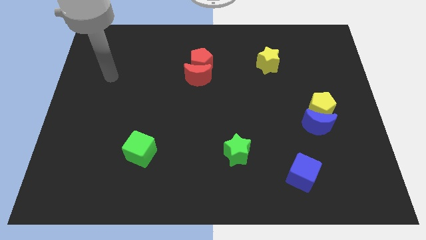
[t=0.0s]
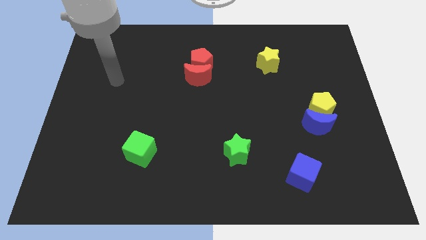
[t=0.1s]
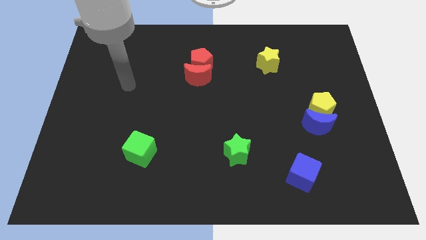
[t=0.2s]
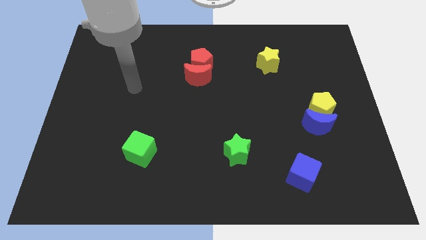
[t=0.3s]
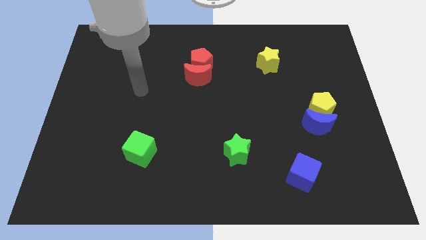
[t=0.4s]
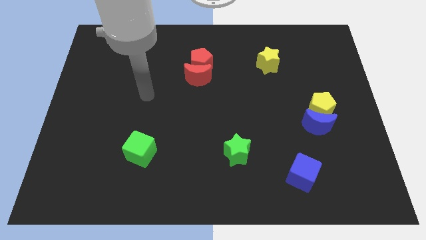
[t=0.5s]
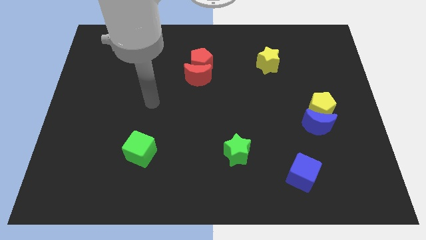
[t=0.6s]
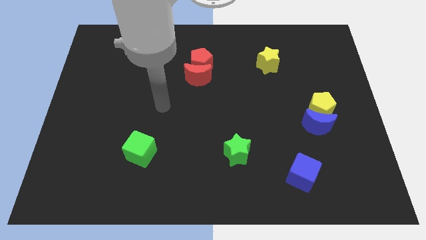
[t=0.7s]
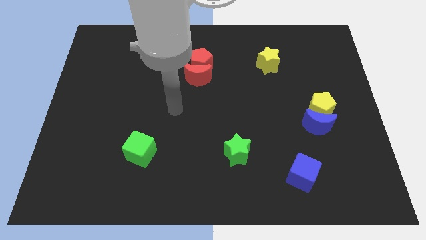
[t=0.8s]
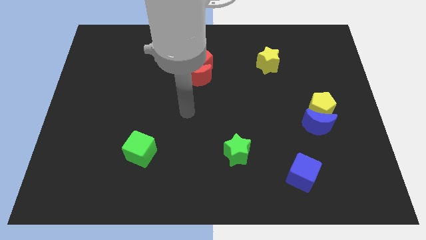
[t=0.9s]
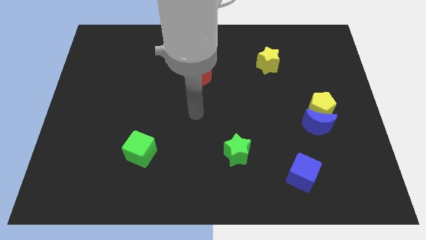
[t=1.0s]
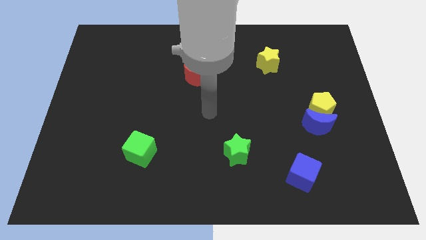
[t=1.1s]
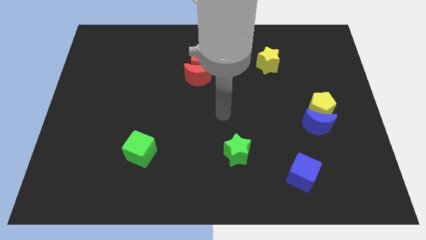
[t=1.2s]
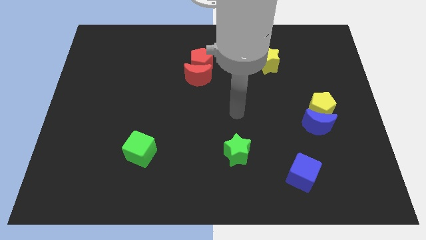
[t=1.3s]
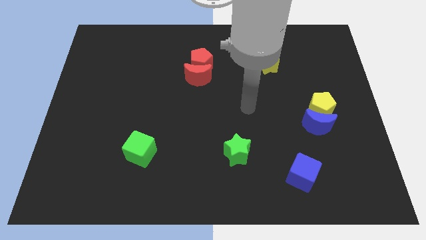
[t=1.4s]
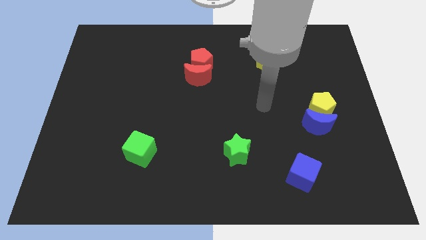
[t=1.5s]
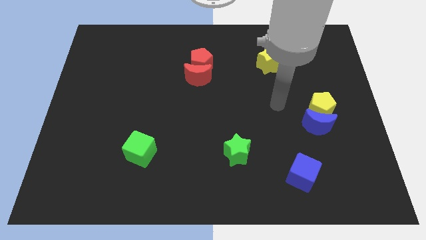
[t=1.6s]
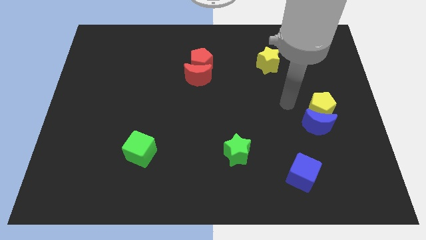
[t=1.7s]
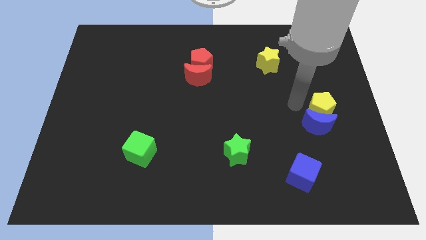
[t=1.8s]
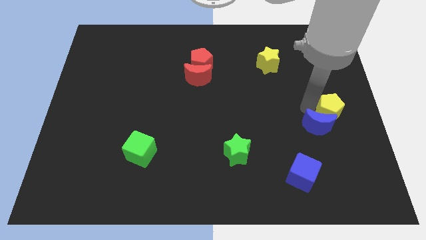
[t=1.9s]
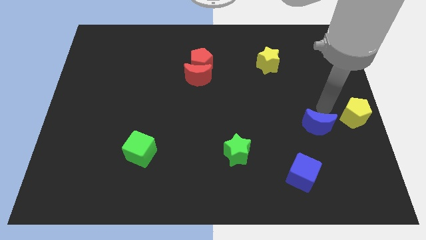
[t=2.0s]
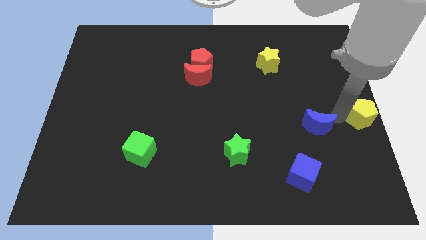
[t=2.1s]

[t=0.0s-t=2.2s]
move the blue moon away from the yellow pentagon

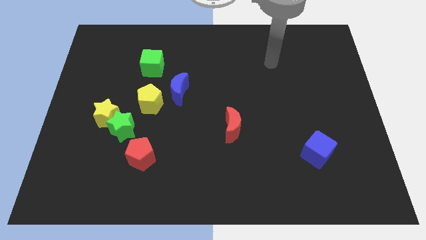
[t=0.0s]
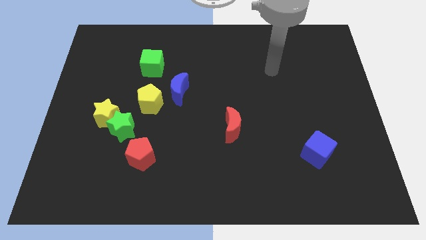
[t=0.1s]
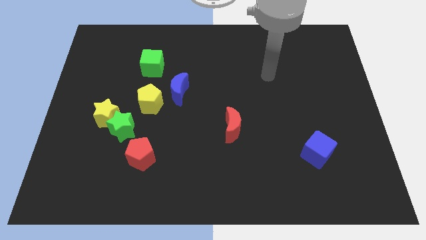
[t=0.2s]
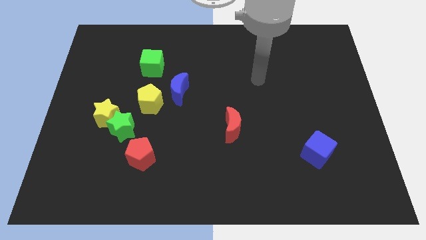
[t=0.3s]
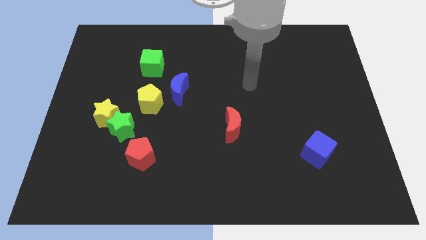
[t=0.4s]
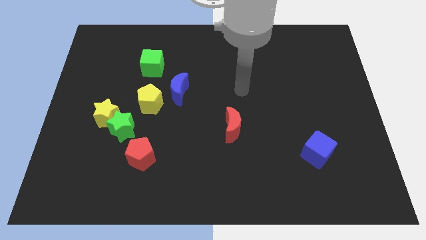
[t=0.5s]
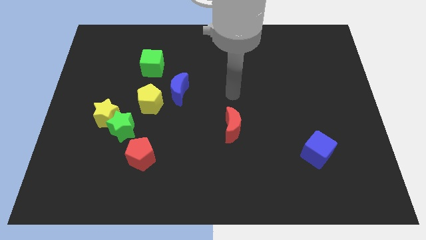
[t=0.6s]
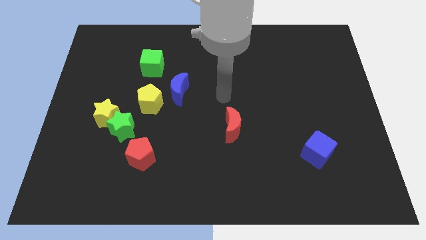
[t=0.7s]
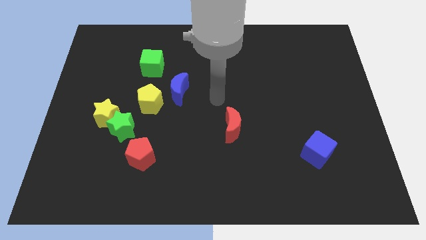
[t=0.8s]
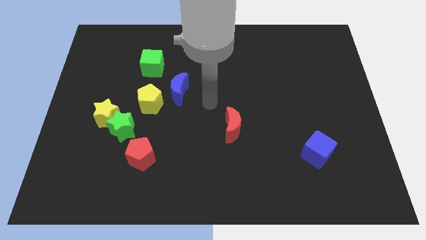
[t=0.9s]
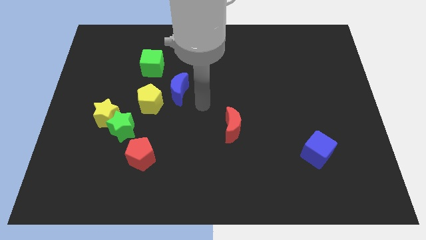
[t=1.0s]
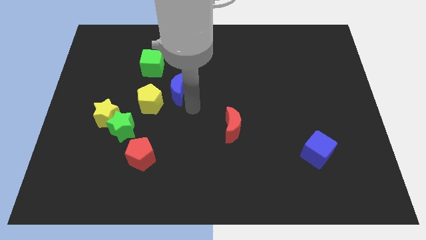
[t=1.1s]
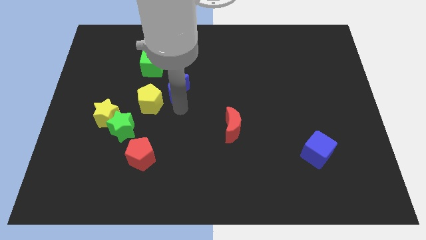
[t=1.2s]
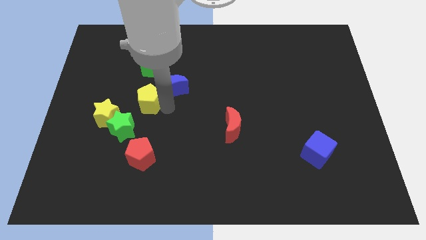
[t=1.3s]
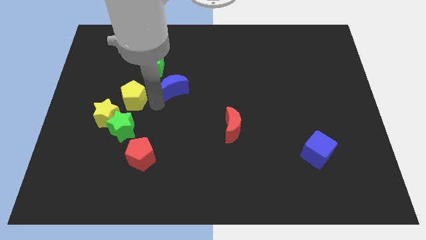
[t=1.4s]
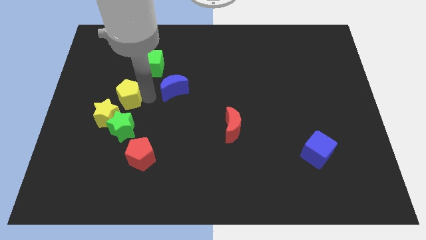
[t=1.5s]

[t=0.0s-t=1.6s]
separate the blue moon from the yellow pentagon

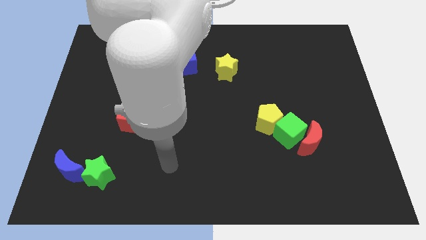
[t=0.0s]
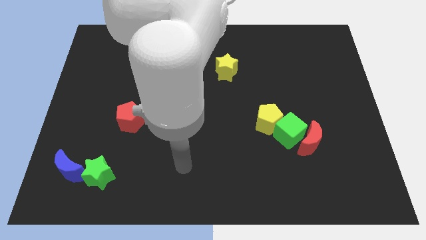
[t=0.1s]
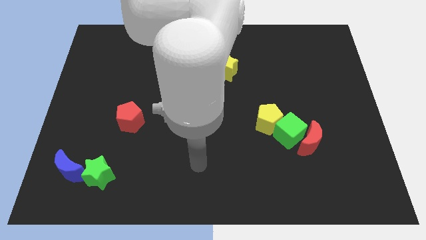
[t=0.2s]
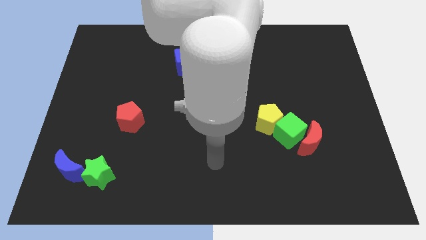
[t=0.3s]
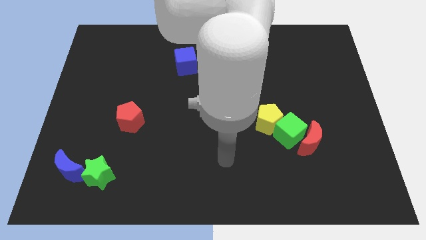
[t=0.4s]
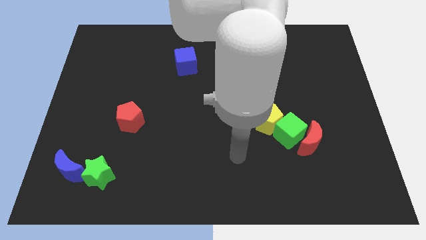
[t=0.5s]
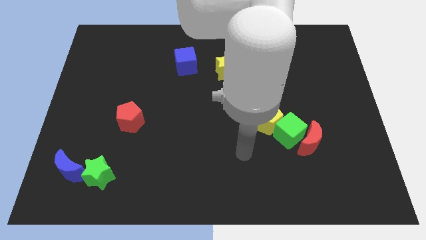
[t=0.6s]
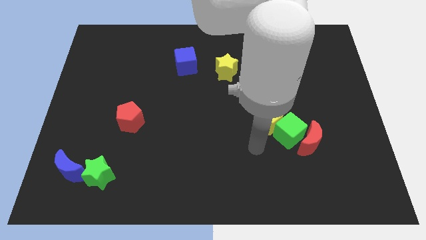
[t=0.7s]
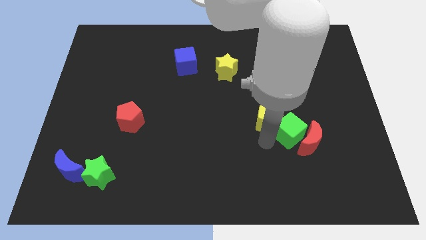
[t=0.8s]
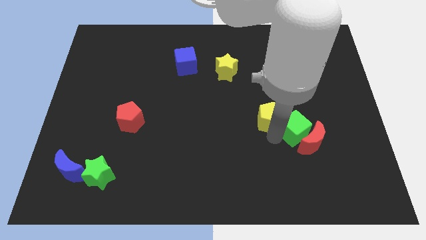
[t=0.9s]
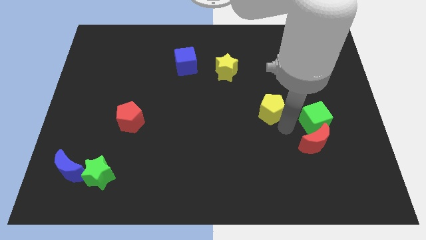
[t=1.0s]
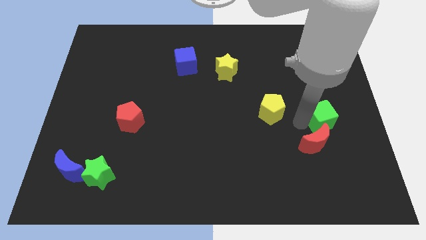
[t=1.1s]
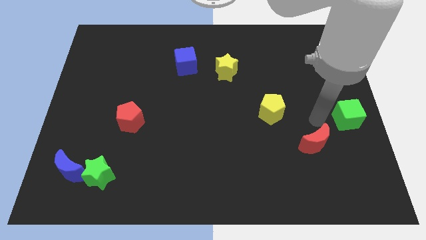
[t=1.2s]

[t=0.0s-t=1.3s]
separate the red moon from the green cube

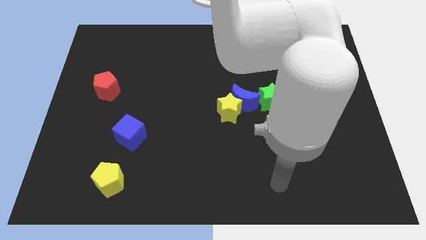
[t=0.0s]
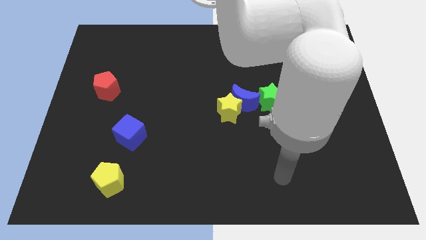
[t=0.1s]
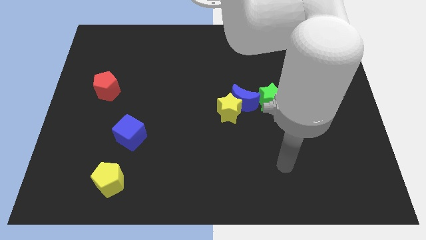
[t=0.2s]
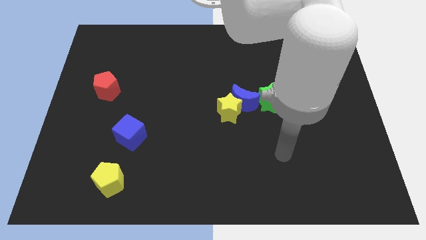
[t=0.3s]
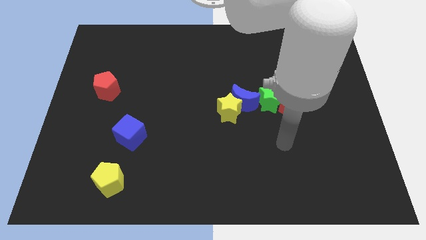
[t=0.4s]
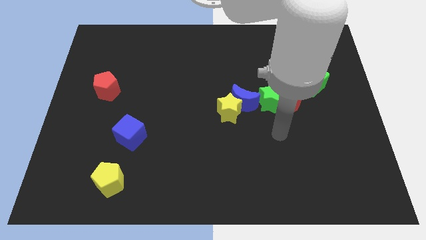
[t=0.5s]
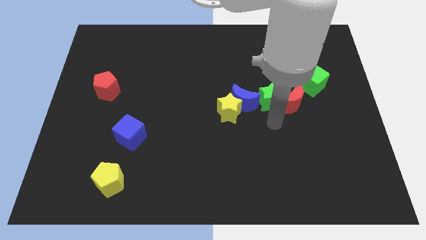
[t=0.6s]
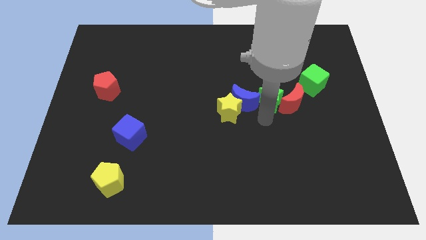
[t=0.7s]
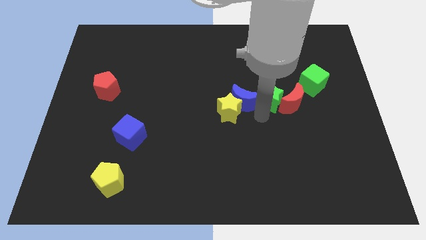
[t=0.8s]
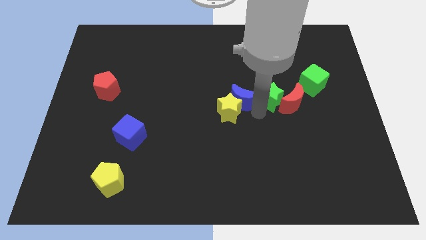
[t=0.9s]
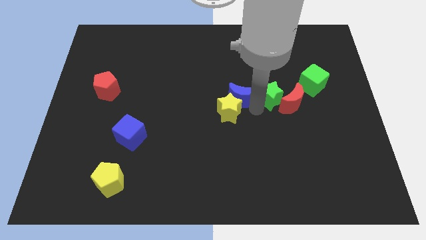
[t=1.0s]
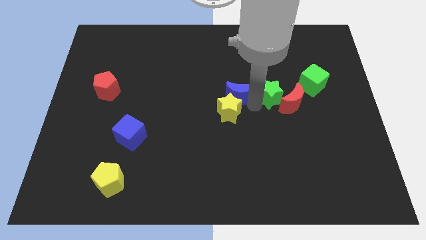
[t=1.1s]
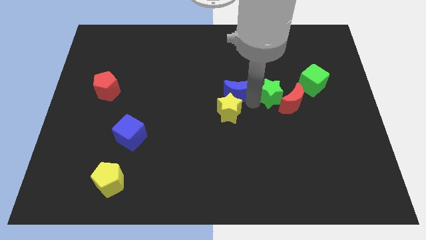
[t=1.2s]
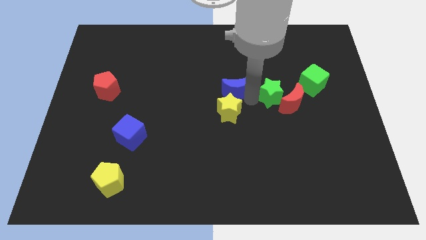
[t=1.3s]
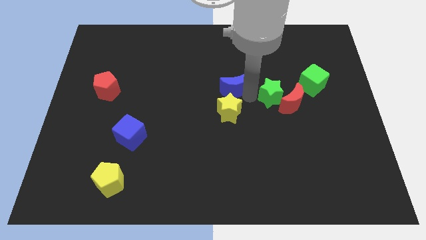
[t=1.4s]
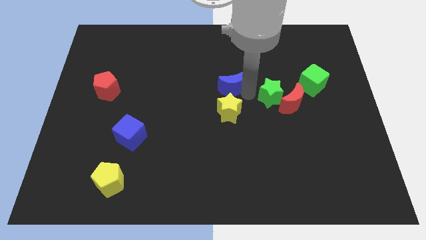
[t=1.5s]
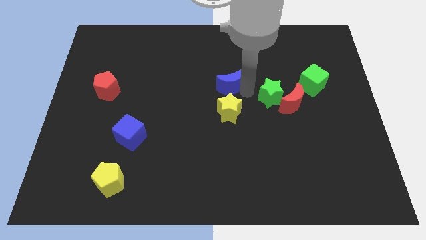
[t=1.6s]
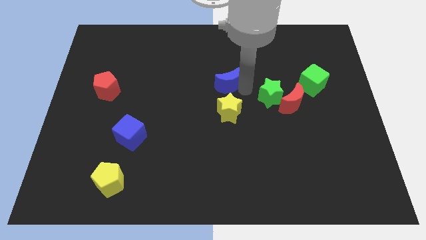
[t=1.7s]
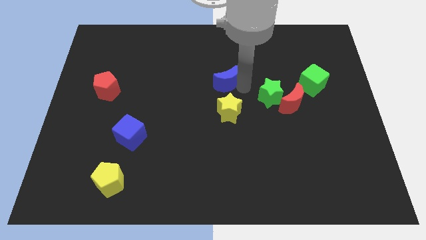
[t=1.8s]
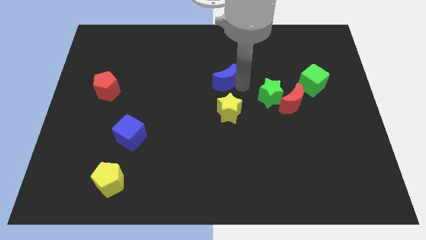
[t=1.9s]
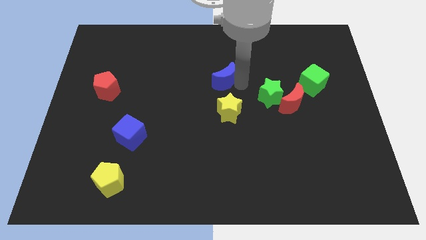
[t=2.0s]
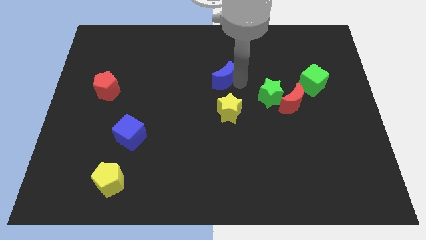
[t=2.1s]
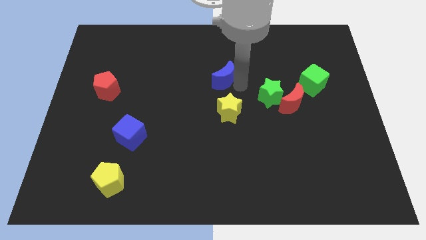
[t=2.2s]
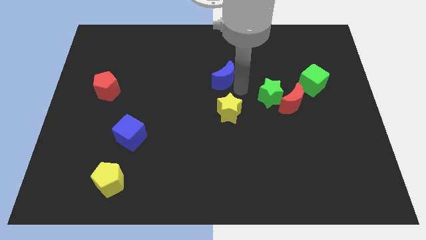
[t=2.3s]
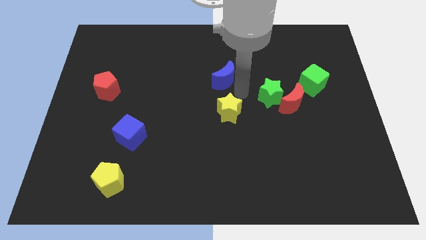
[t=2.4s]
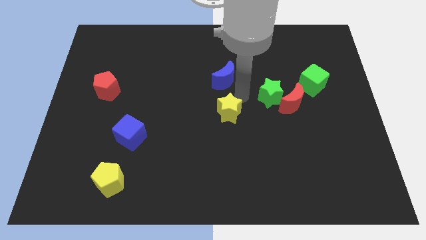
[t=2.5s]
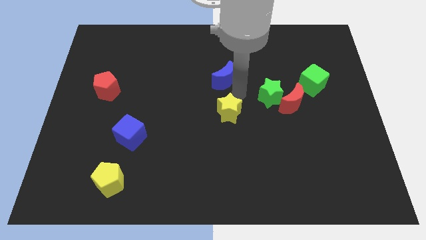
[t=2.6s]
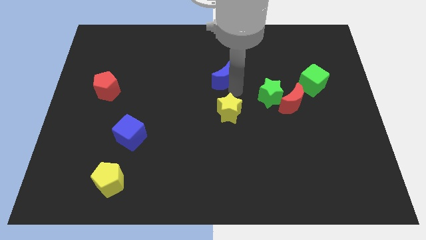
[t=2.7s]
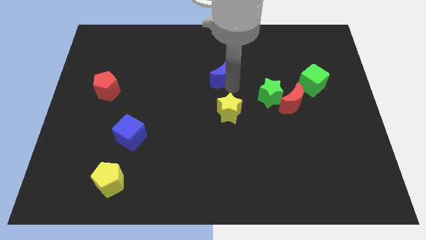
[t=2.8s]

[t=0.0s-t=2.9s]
pull the blue moon apart from the yellow star and green star

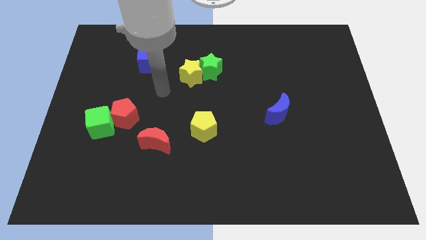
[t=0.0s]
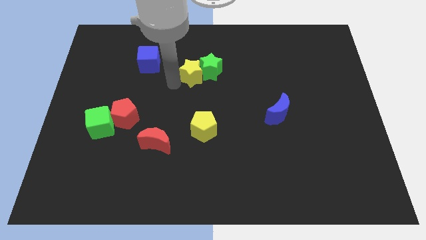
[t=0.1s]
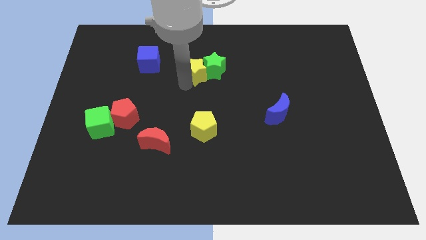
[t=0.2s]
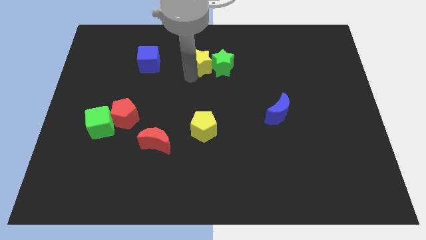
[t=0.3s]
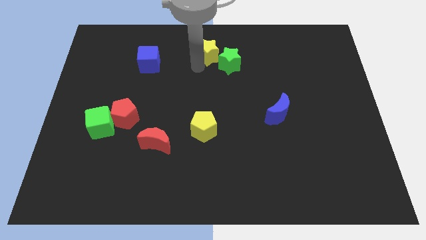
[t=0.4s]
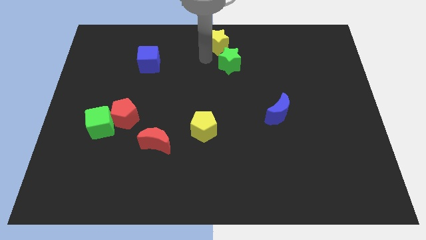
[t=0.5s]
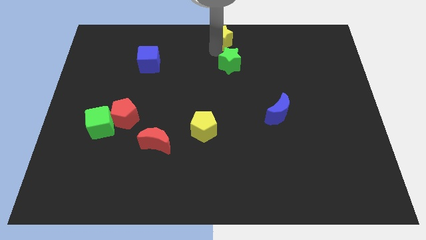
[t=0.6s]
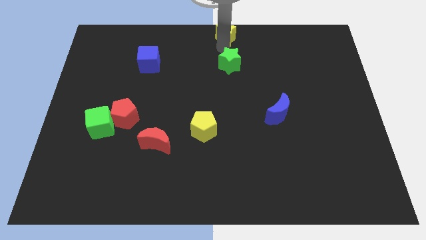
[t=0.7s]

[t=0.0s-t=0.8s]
separate the green star from the yellow star

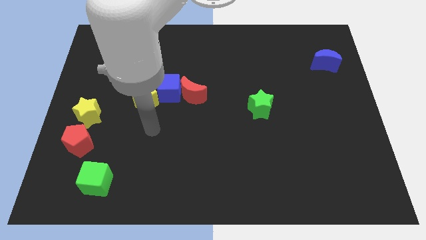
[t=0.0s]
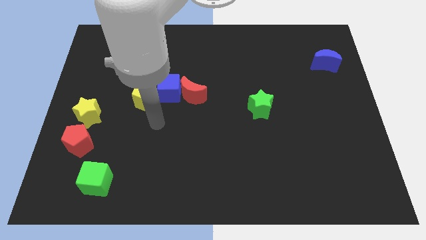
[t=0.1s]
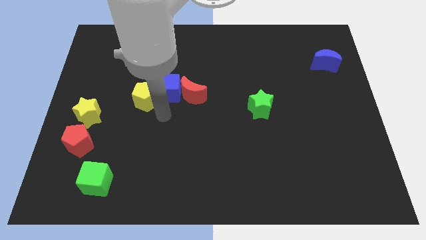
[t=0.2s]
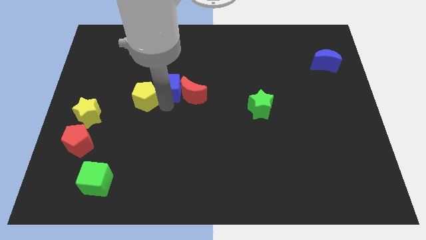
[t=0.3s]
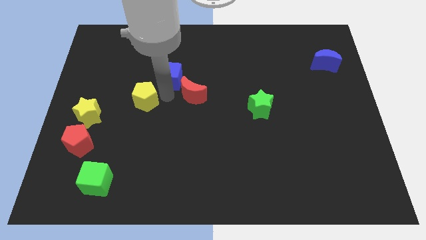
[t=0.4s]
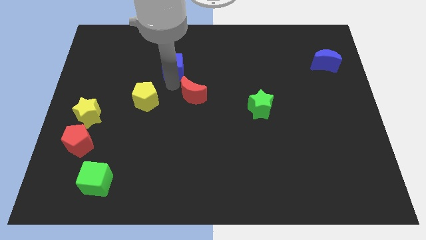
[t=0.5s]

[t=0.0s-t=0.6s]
pull the red moon apart from the blue cube
